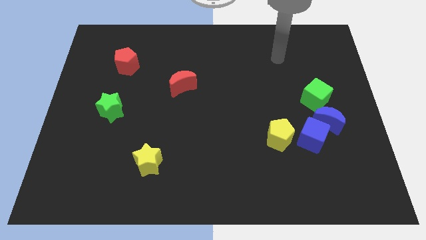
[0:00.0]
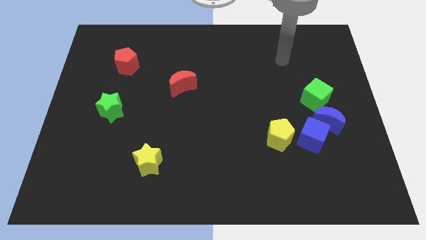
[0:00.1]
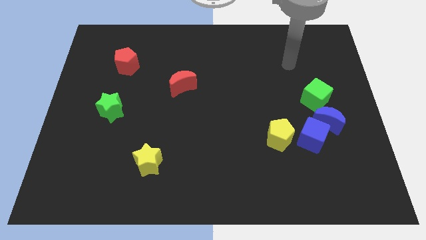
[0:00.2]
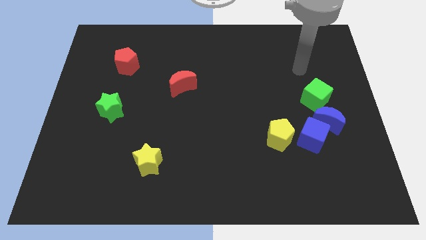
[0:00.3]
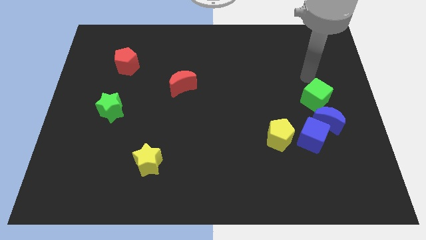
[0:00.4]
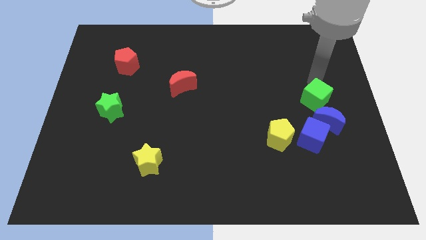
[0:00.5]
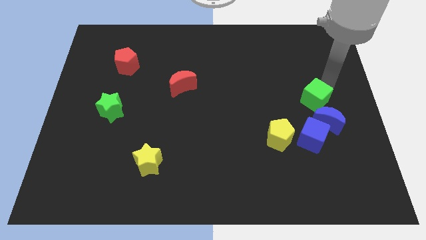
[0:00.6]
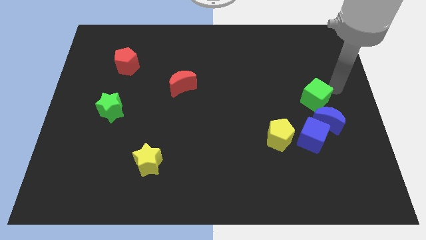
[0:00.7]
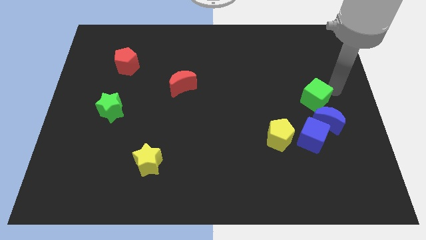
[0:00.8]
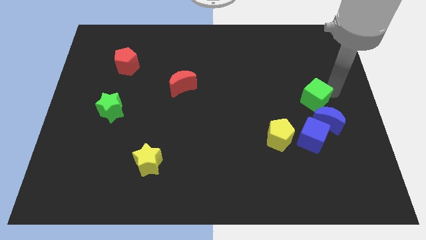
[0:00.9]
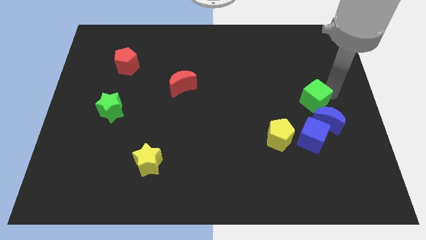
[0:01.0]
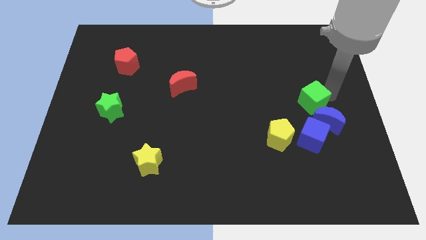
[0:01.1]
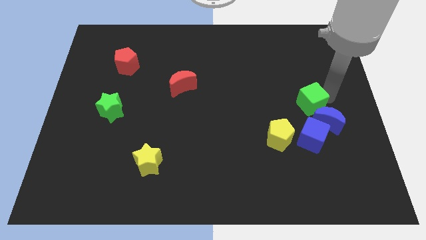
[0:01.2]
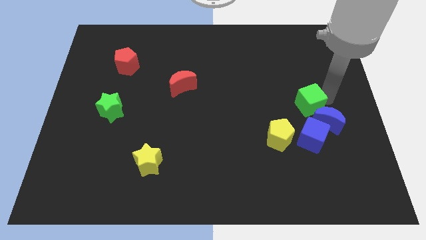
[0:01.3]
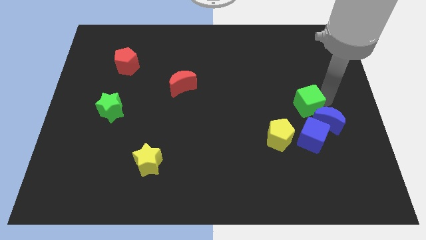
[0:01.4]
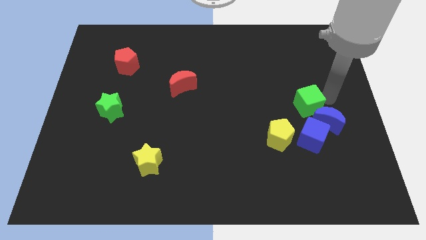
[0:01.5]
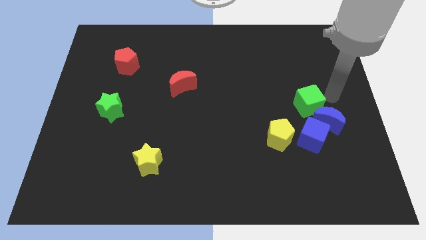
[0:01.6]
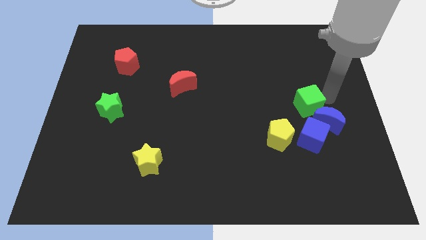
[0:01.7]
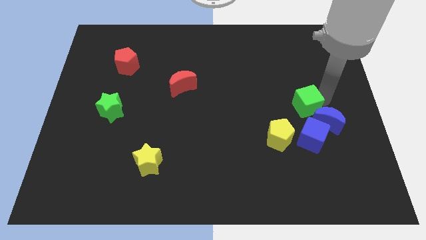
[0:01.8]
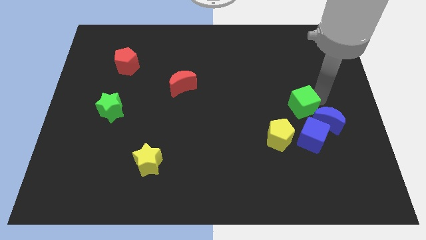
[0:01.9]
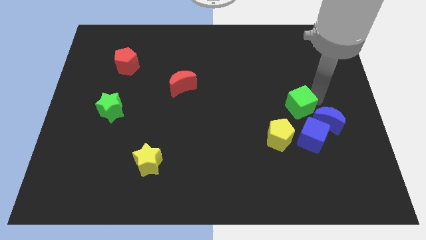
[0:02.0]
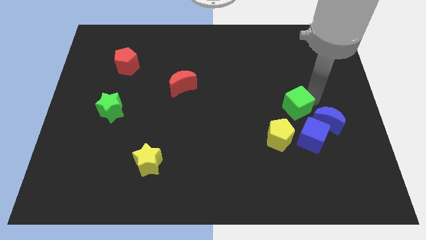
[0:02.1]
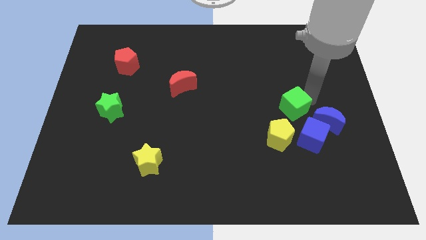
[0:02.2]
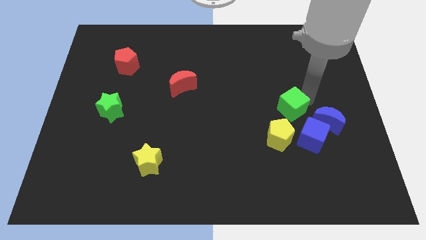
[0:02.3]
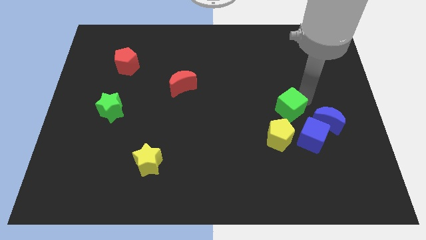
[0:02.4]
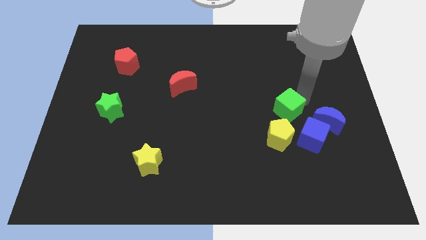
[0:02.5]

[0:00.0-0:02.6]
push the green cube a little downwards and then to the left

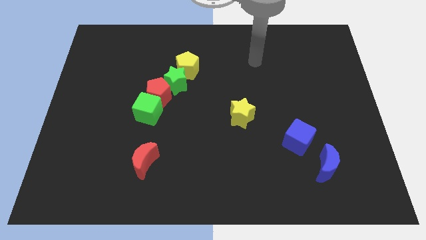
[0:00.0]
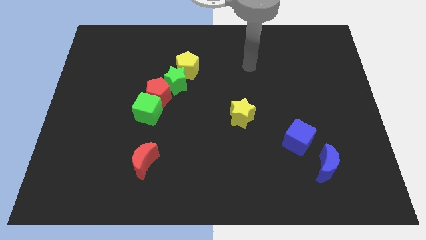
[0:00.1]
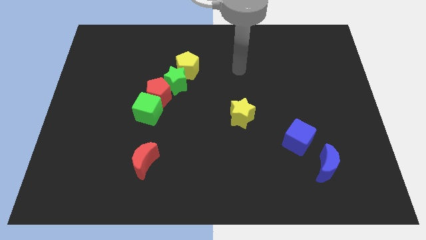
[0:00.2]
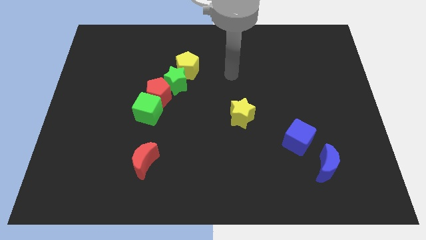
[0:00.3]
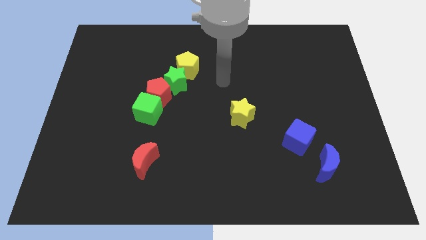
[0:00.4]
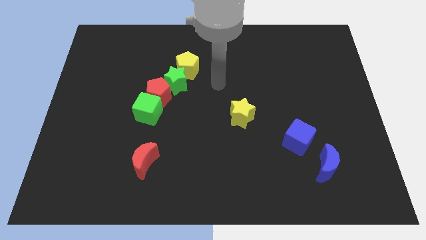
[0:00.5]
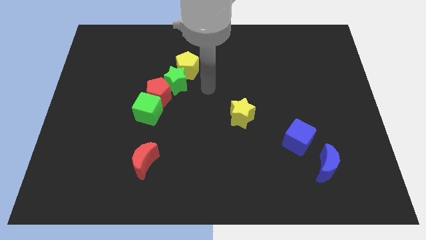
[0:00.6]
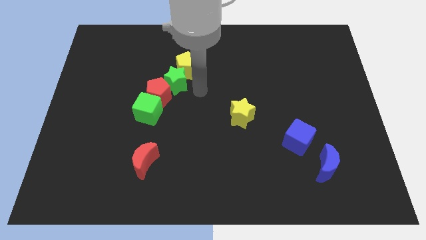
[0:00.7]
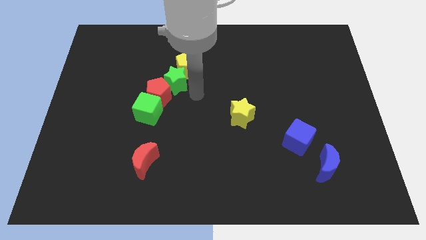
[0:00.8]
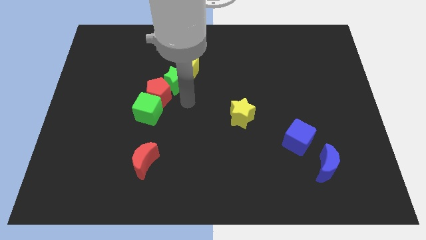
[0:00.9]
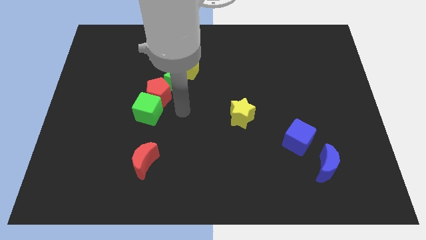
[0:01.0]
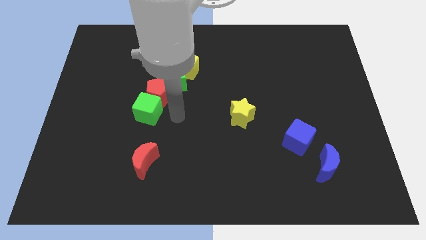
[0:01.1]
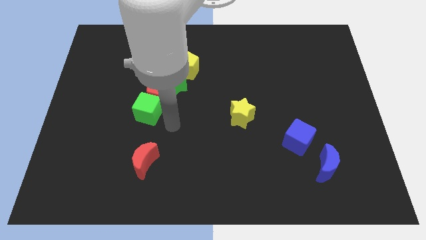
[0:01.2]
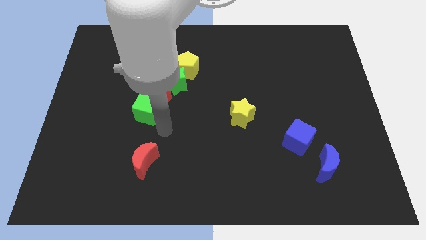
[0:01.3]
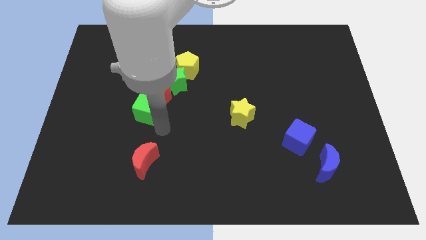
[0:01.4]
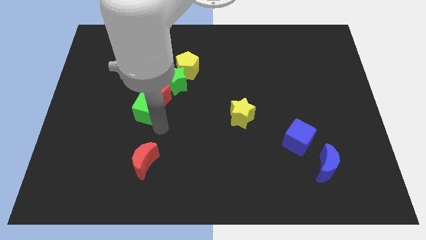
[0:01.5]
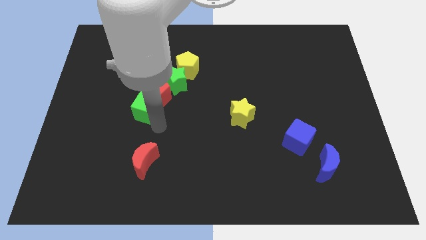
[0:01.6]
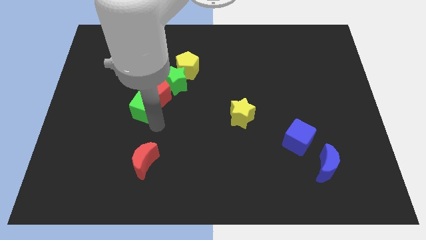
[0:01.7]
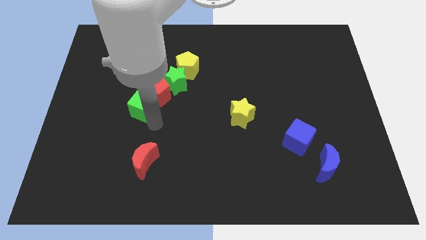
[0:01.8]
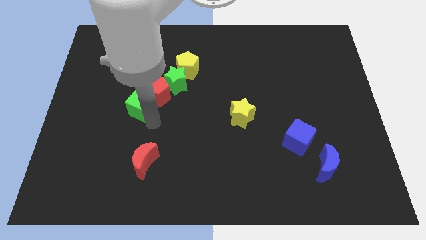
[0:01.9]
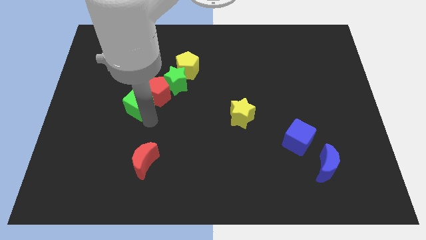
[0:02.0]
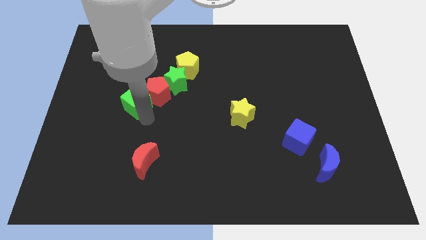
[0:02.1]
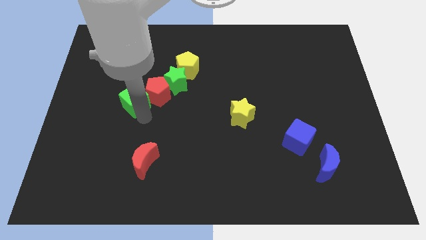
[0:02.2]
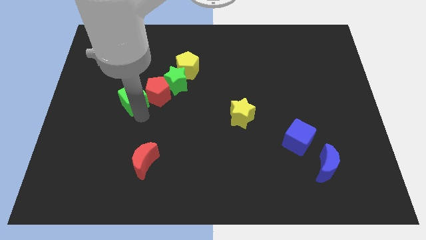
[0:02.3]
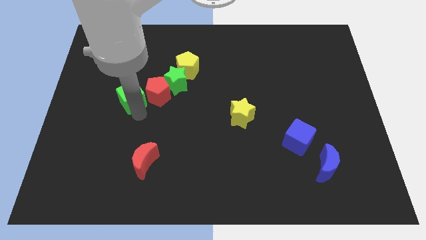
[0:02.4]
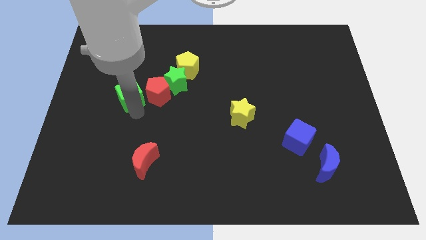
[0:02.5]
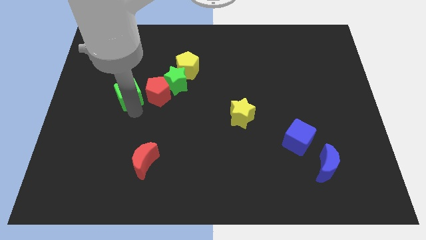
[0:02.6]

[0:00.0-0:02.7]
push the green cube somewhat upwards and left diagonally

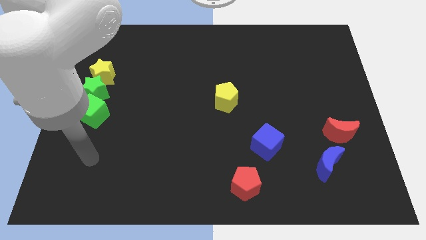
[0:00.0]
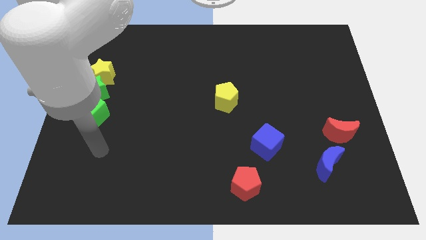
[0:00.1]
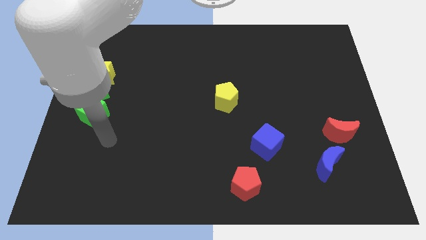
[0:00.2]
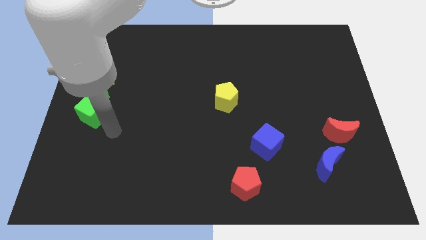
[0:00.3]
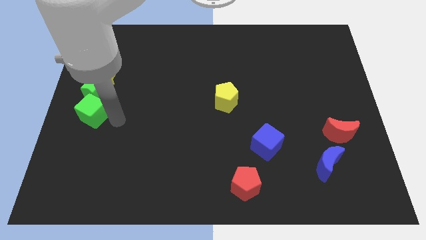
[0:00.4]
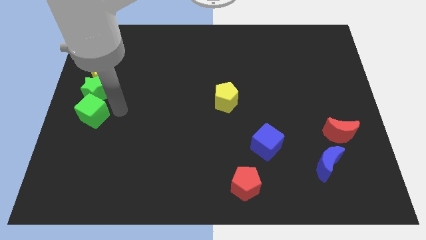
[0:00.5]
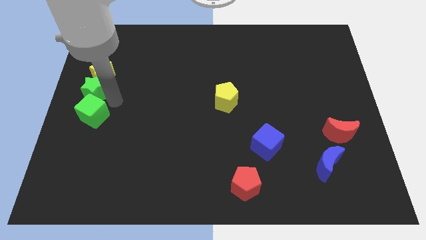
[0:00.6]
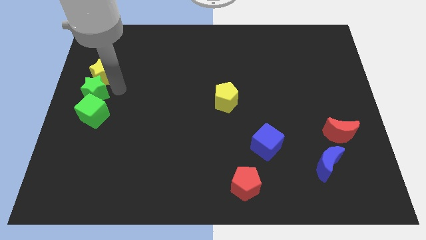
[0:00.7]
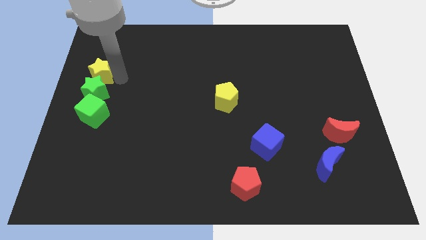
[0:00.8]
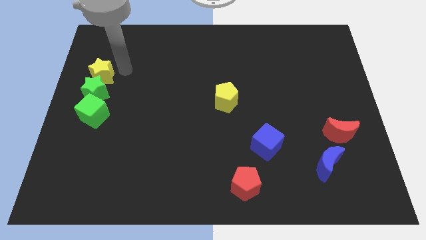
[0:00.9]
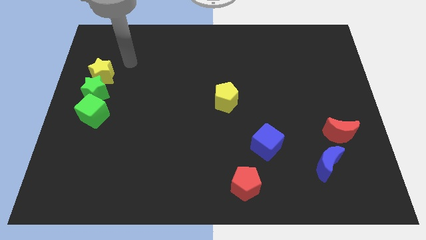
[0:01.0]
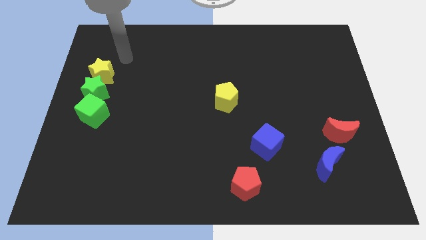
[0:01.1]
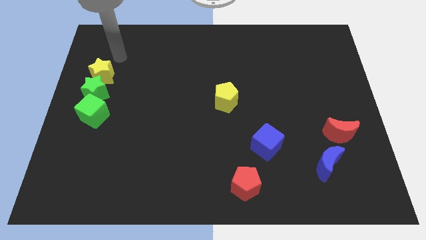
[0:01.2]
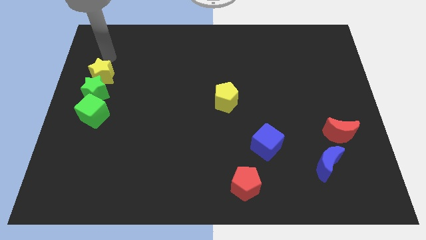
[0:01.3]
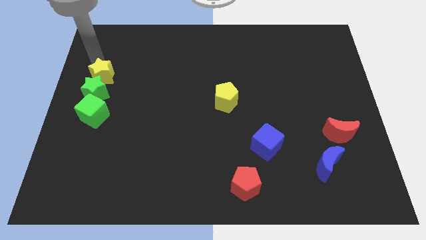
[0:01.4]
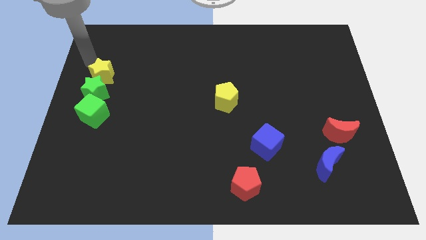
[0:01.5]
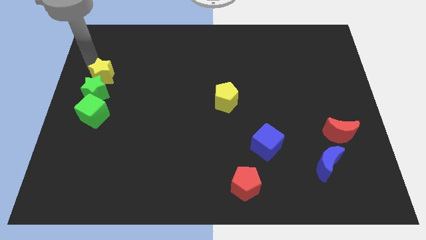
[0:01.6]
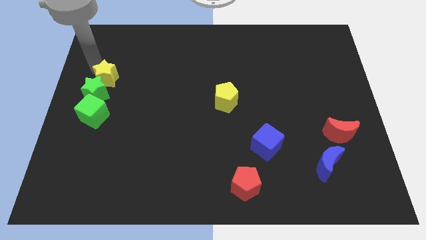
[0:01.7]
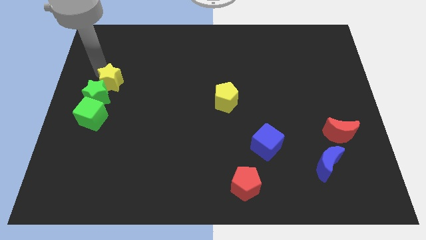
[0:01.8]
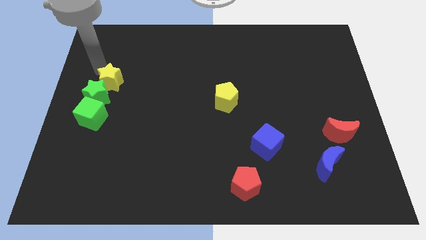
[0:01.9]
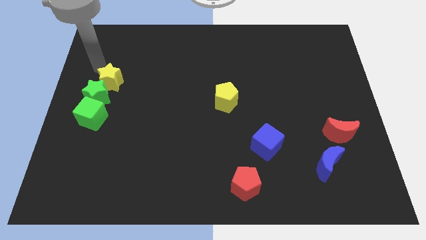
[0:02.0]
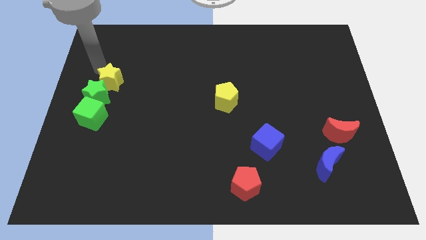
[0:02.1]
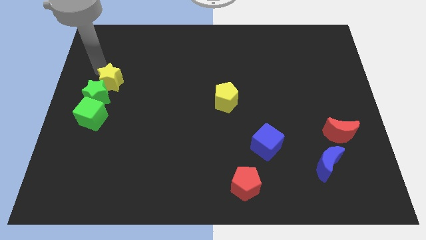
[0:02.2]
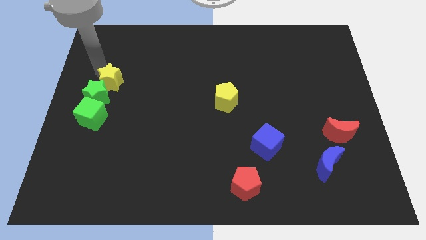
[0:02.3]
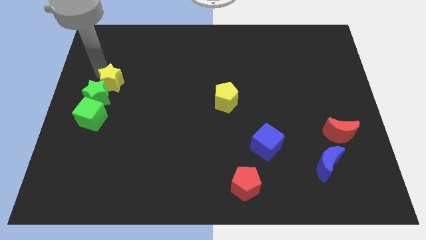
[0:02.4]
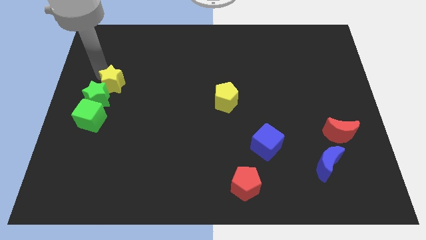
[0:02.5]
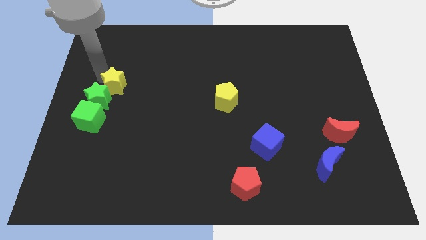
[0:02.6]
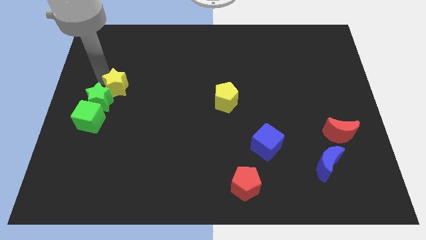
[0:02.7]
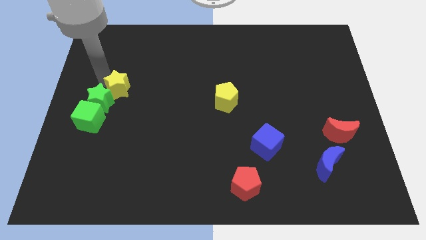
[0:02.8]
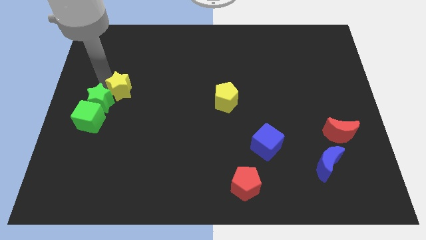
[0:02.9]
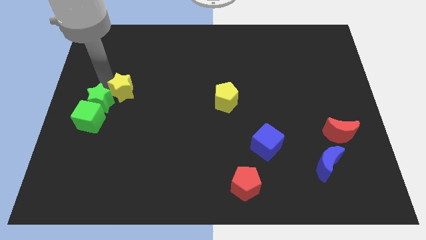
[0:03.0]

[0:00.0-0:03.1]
push the yellow star down and right a little bit
